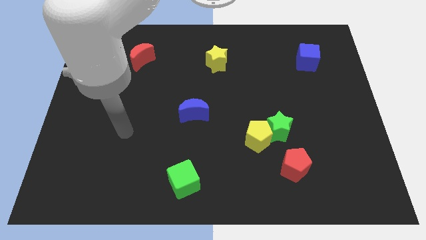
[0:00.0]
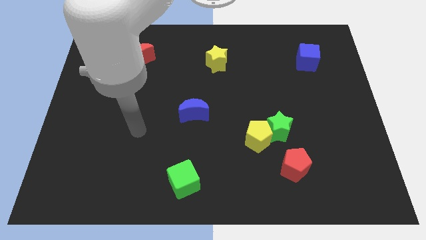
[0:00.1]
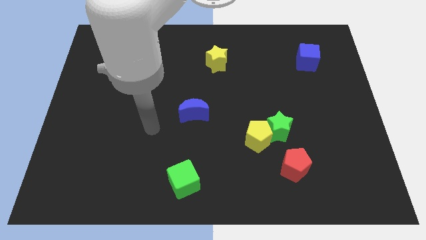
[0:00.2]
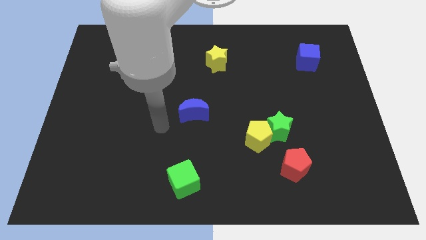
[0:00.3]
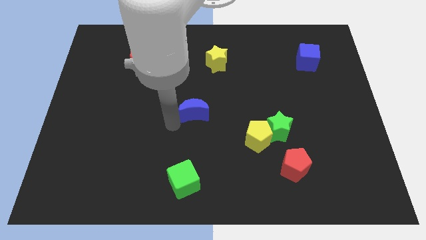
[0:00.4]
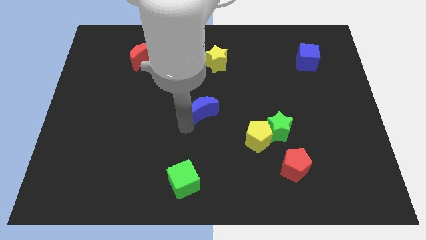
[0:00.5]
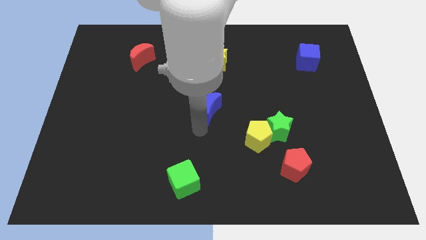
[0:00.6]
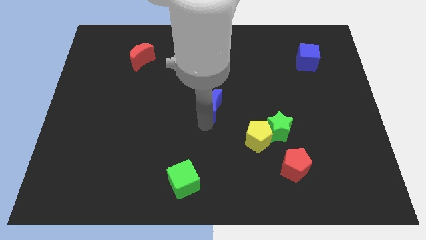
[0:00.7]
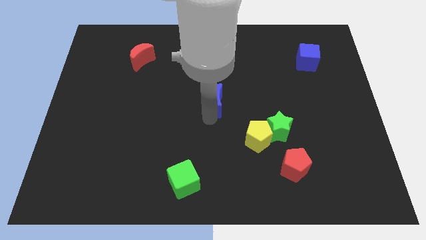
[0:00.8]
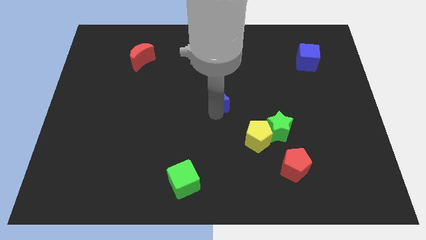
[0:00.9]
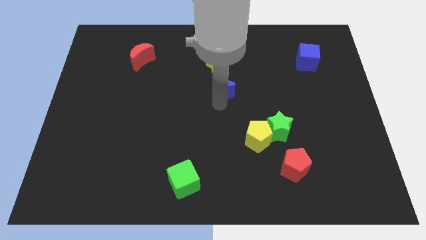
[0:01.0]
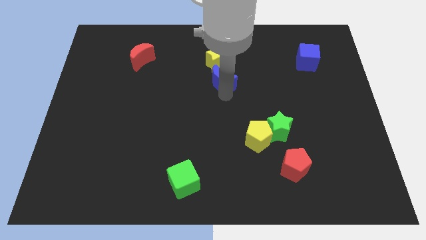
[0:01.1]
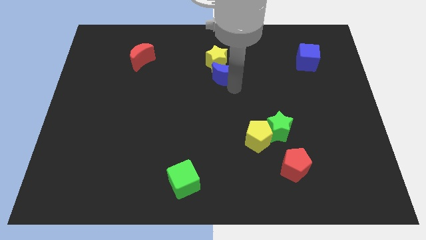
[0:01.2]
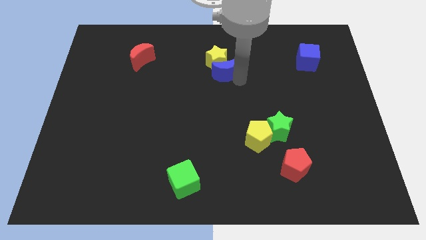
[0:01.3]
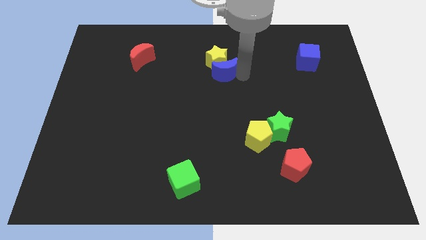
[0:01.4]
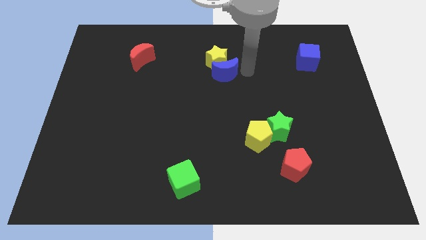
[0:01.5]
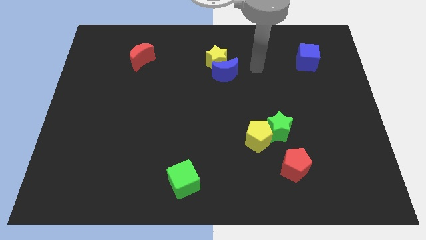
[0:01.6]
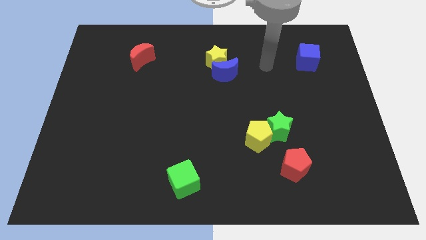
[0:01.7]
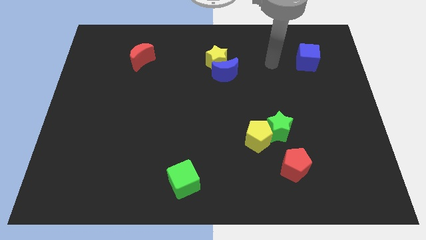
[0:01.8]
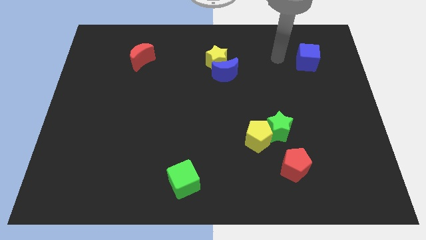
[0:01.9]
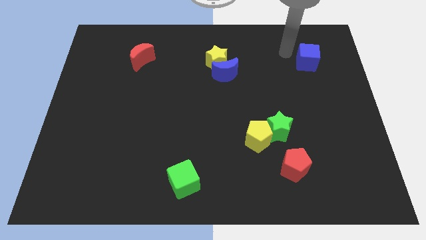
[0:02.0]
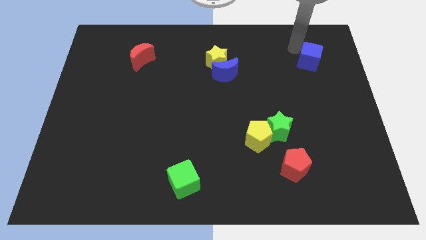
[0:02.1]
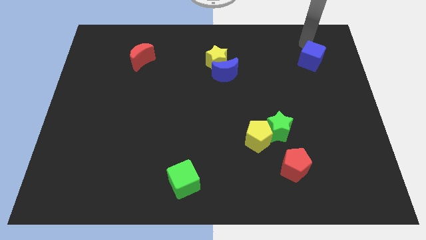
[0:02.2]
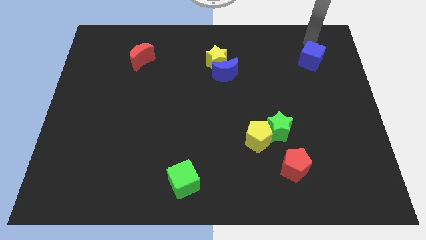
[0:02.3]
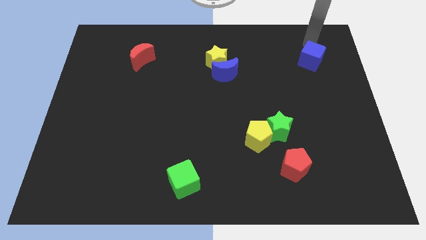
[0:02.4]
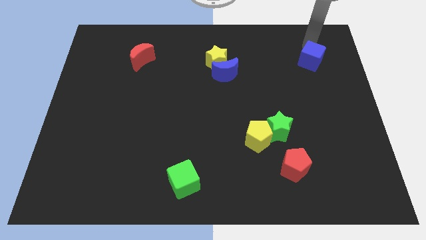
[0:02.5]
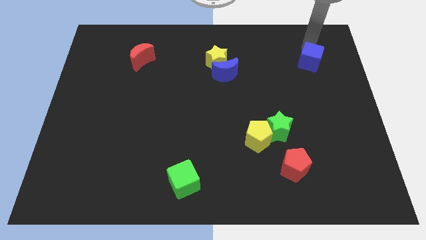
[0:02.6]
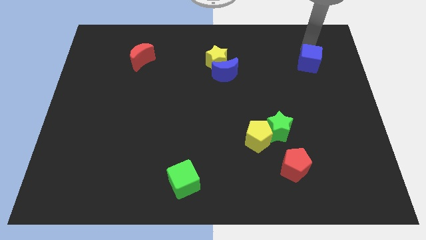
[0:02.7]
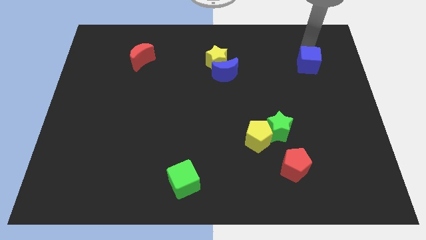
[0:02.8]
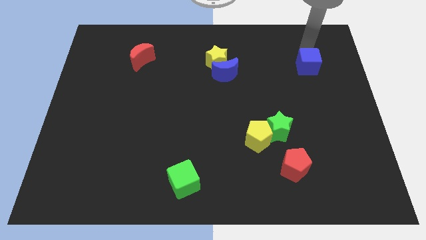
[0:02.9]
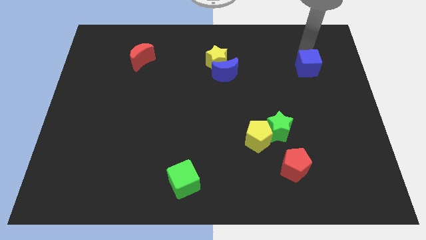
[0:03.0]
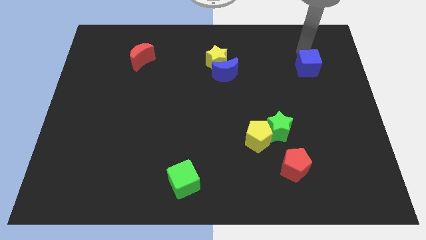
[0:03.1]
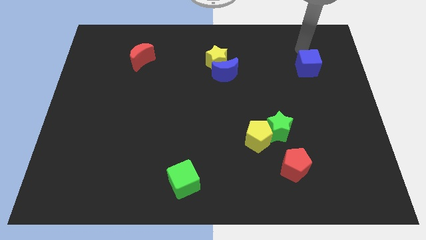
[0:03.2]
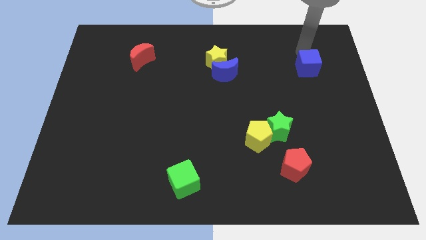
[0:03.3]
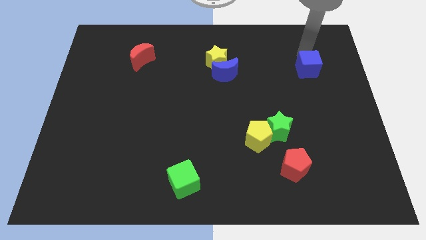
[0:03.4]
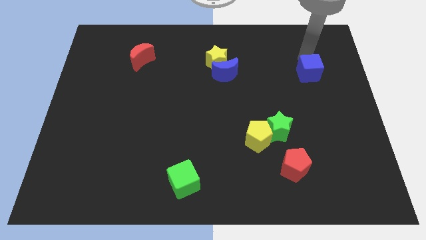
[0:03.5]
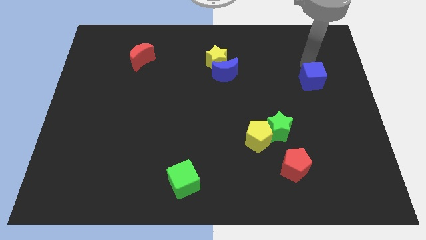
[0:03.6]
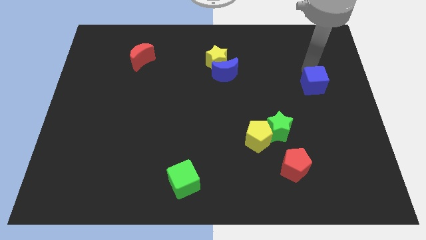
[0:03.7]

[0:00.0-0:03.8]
push the blue cube a little downwards

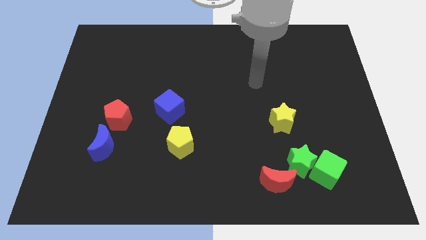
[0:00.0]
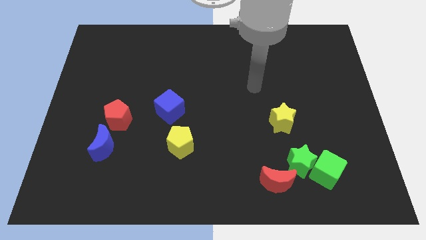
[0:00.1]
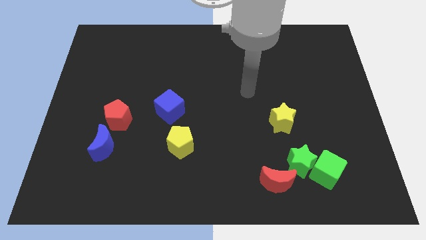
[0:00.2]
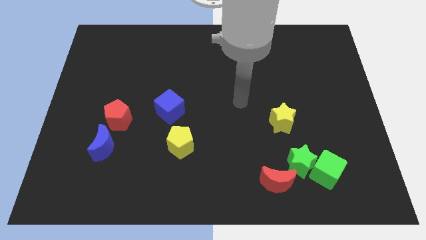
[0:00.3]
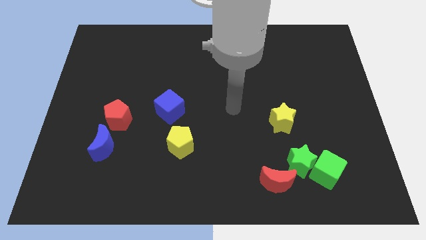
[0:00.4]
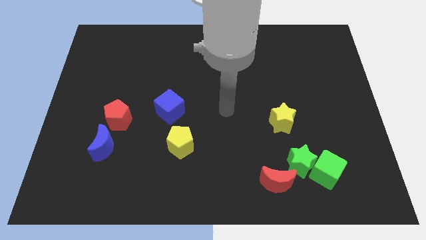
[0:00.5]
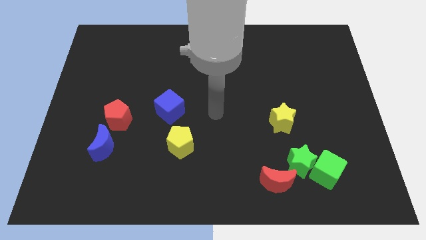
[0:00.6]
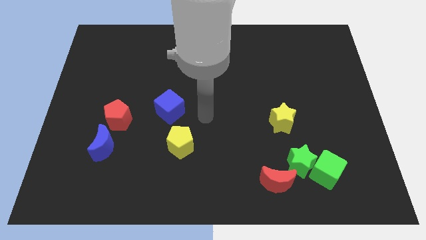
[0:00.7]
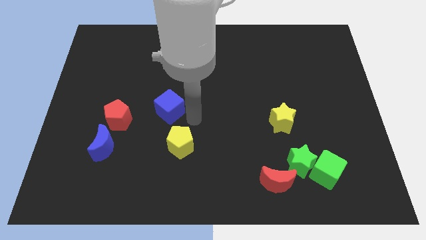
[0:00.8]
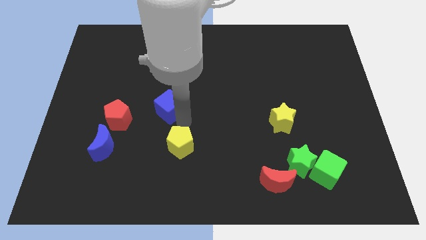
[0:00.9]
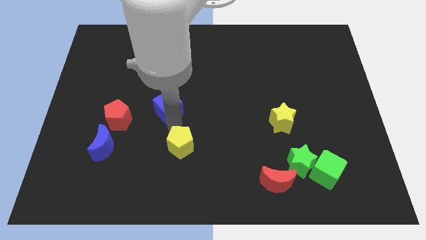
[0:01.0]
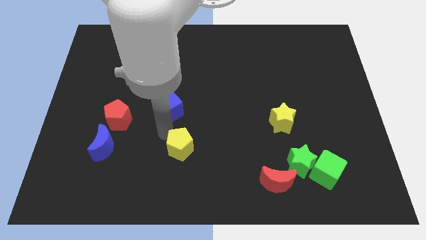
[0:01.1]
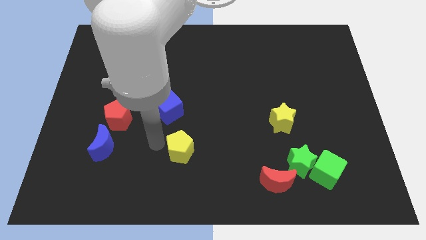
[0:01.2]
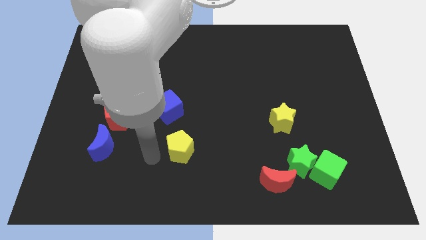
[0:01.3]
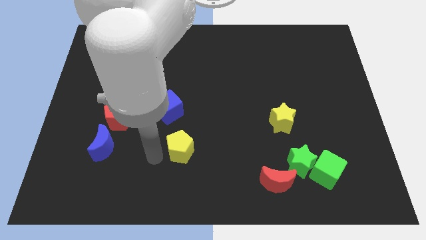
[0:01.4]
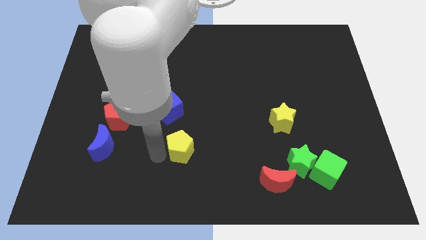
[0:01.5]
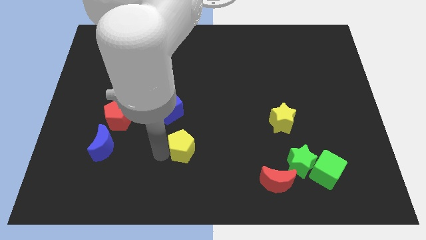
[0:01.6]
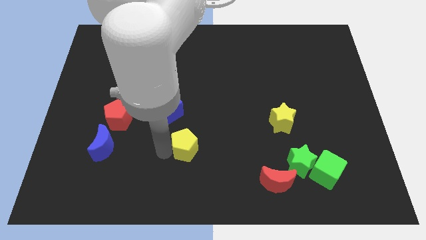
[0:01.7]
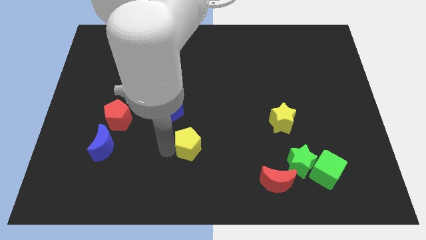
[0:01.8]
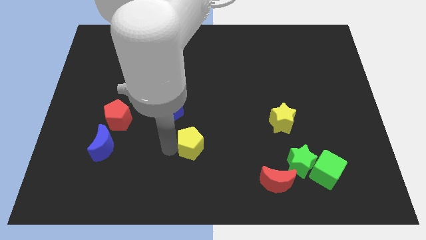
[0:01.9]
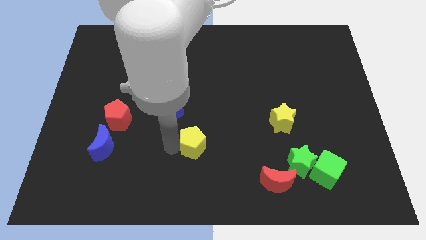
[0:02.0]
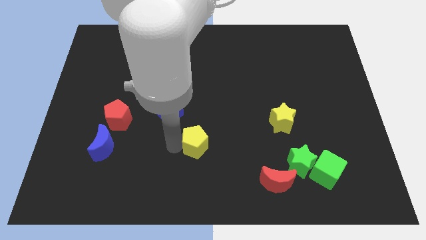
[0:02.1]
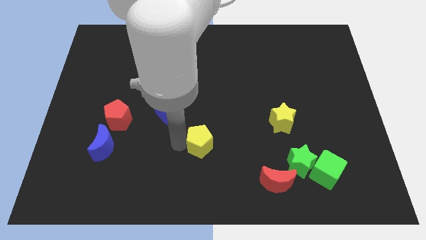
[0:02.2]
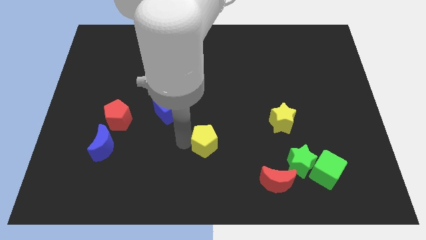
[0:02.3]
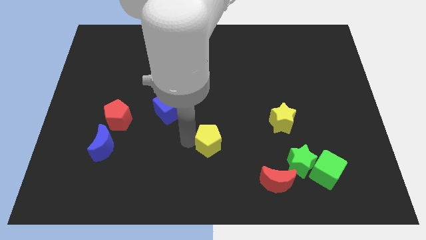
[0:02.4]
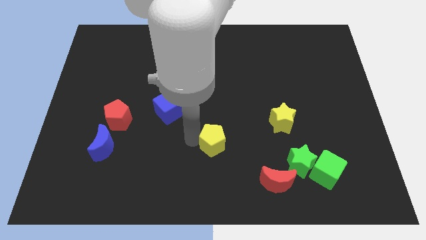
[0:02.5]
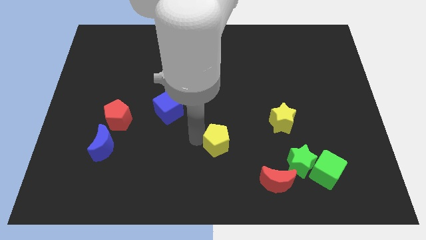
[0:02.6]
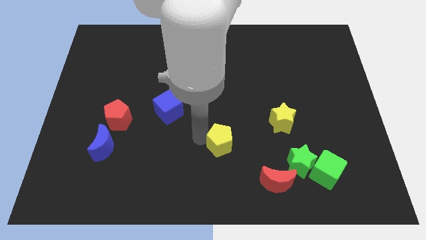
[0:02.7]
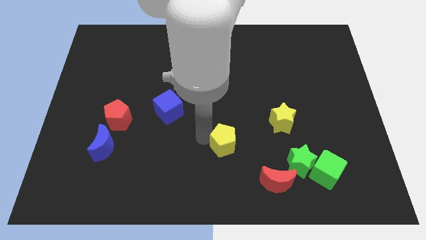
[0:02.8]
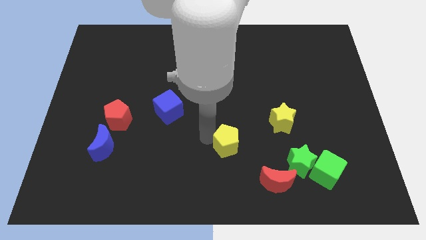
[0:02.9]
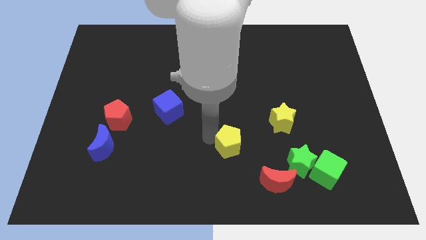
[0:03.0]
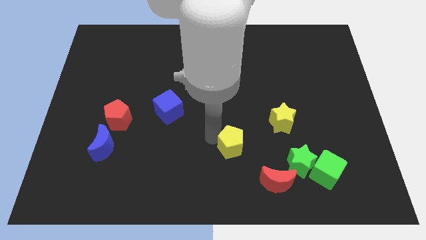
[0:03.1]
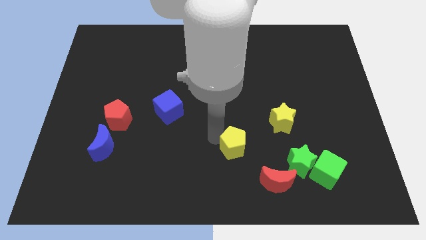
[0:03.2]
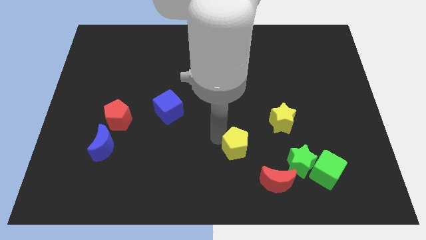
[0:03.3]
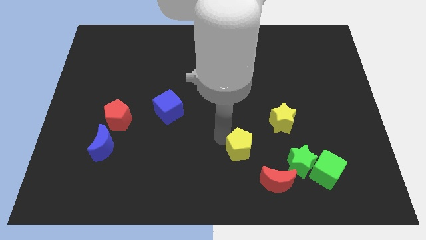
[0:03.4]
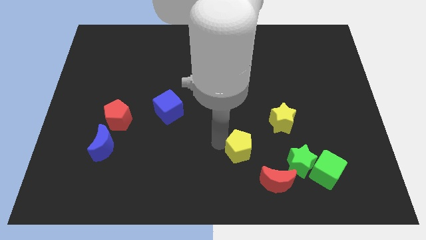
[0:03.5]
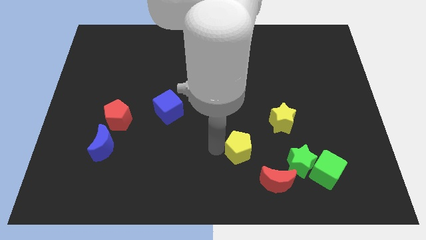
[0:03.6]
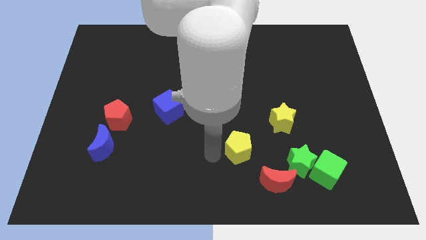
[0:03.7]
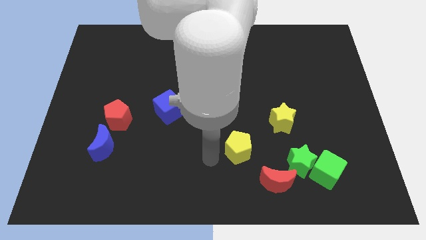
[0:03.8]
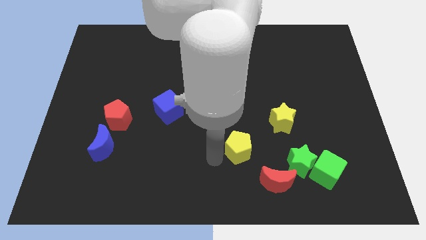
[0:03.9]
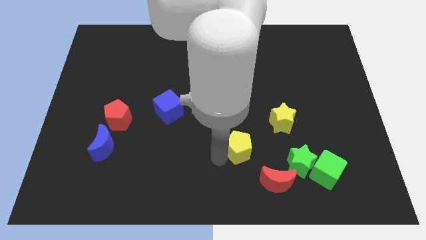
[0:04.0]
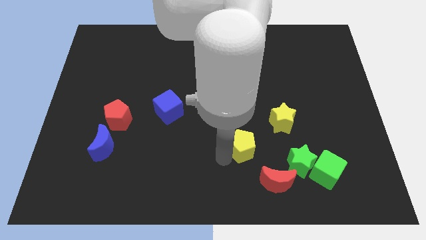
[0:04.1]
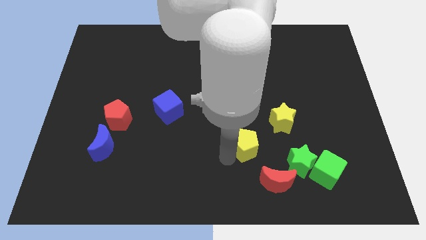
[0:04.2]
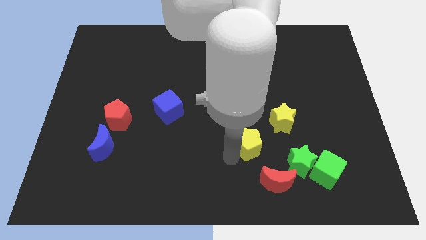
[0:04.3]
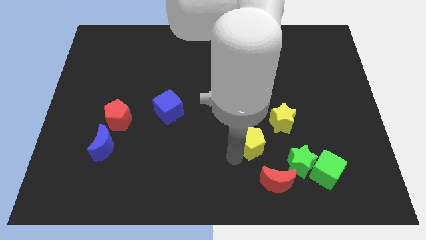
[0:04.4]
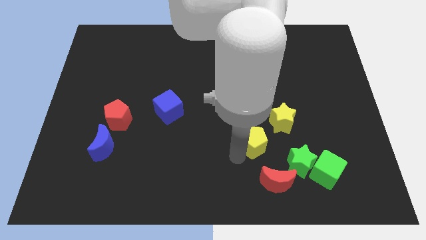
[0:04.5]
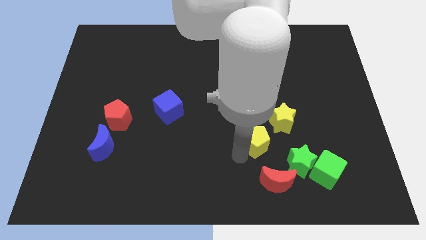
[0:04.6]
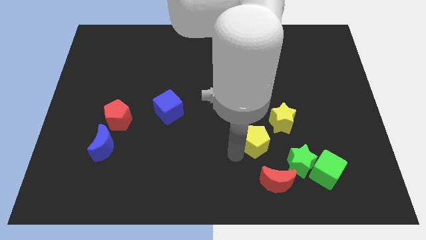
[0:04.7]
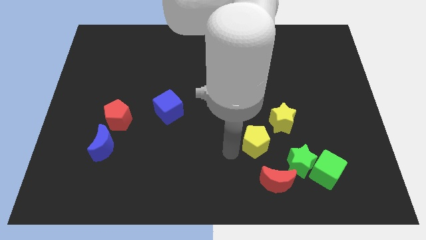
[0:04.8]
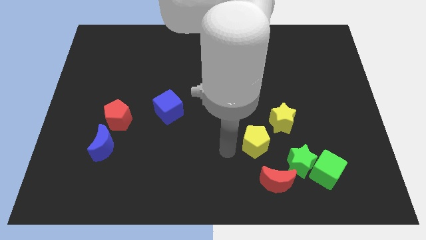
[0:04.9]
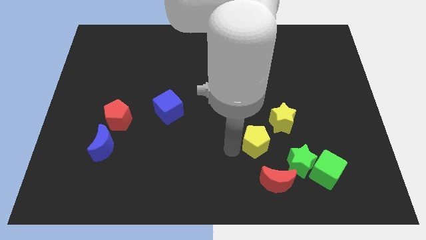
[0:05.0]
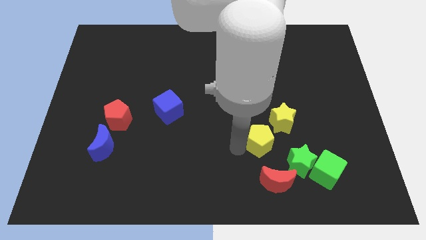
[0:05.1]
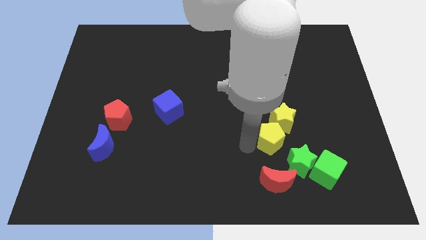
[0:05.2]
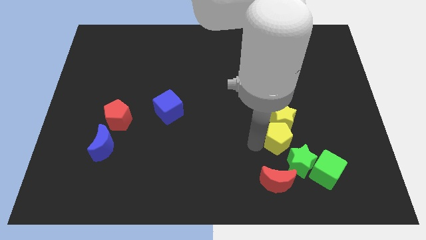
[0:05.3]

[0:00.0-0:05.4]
slide the yellow pentagon right
